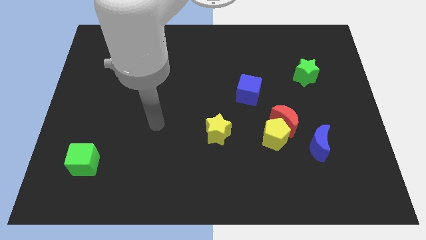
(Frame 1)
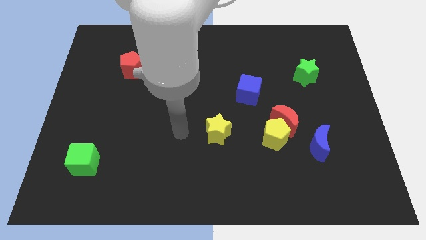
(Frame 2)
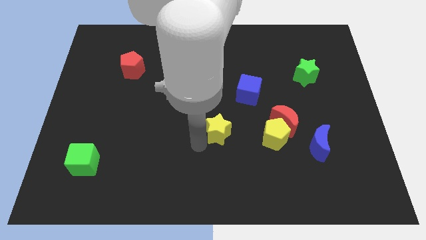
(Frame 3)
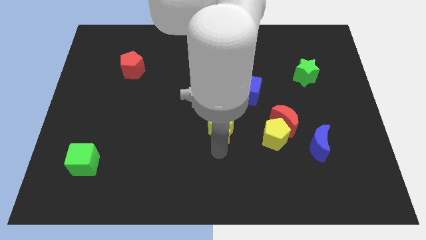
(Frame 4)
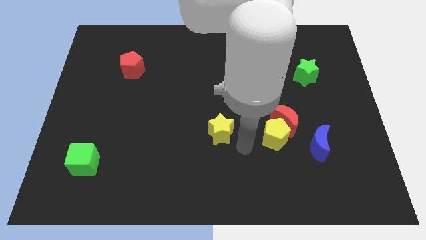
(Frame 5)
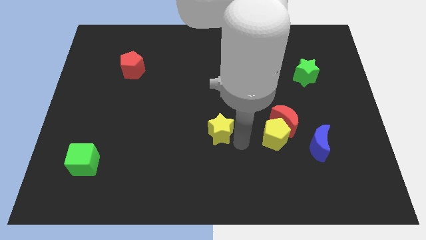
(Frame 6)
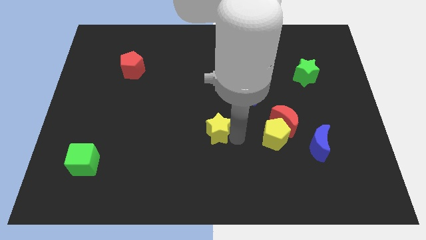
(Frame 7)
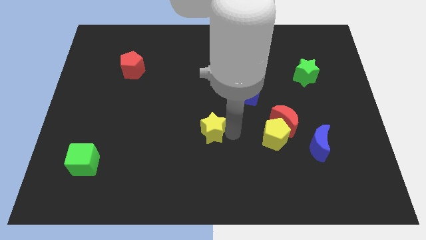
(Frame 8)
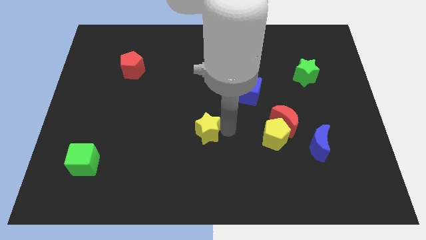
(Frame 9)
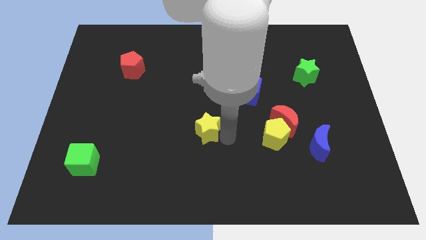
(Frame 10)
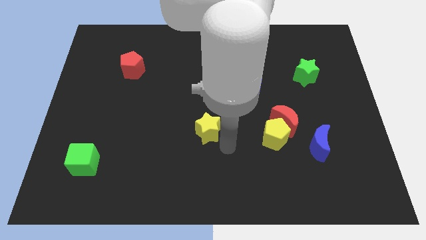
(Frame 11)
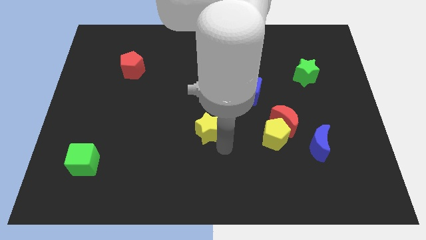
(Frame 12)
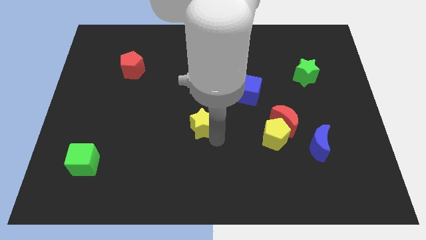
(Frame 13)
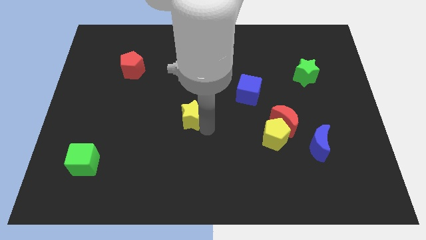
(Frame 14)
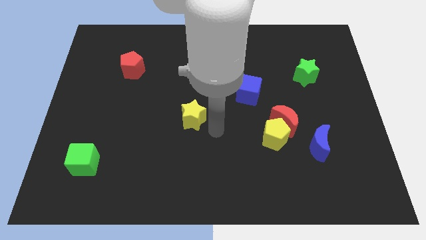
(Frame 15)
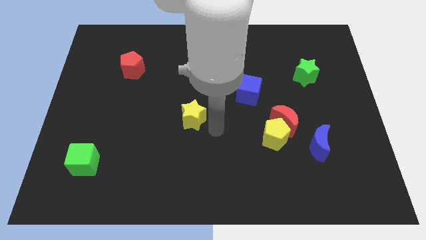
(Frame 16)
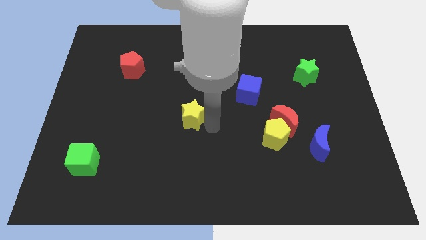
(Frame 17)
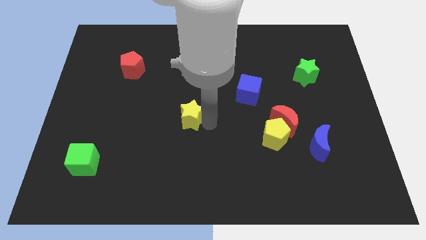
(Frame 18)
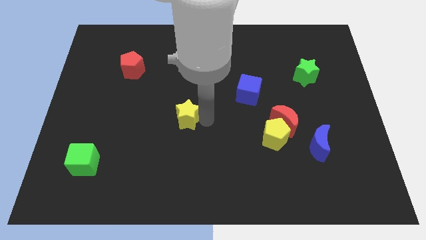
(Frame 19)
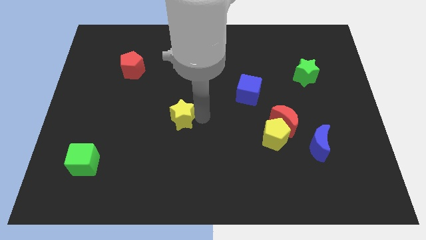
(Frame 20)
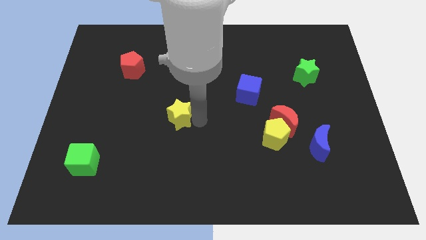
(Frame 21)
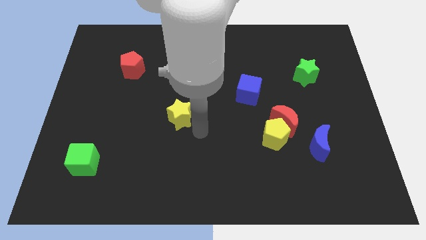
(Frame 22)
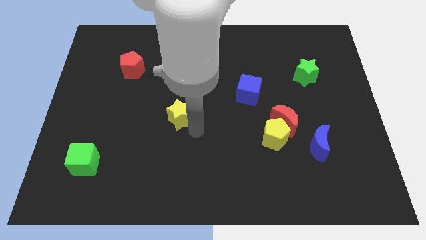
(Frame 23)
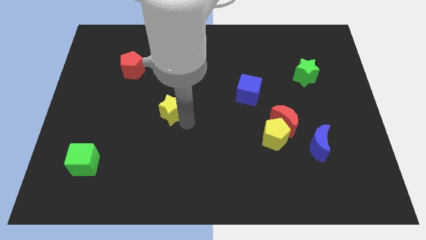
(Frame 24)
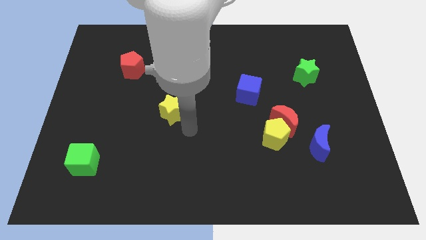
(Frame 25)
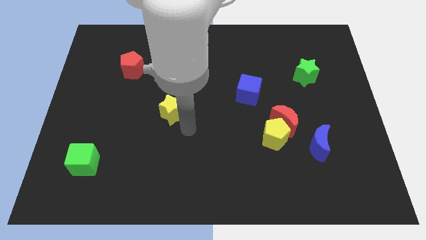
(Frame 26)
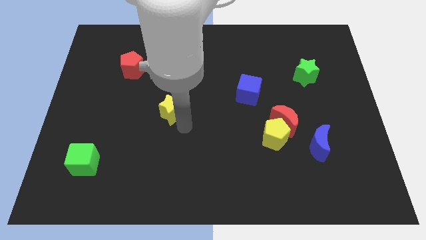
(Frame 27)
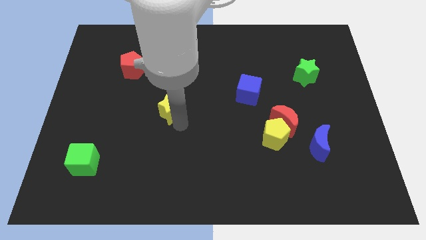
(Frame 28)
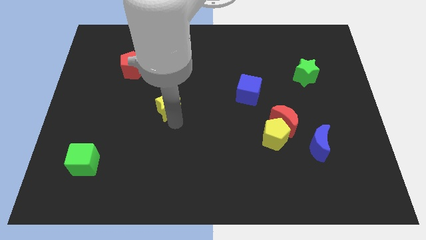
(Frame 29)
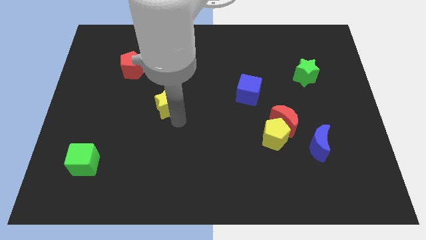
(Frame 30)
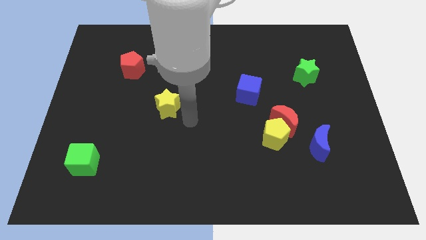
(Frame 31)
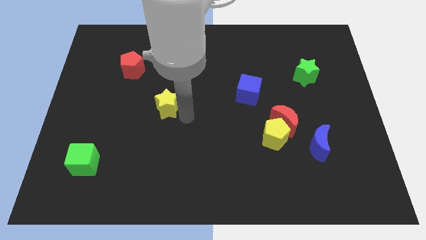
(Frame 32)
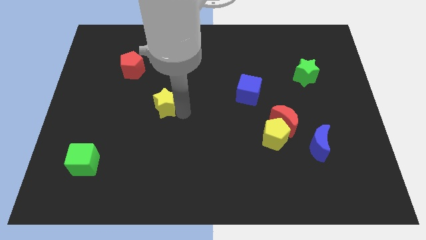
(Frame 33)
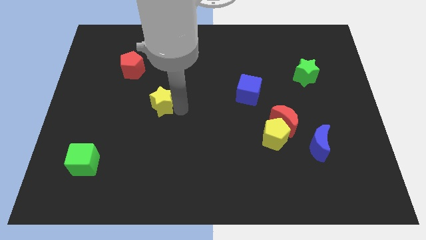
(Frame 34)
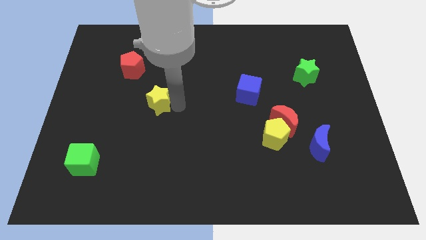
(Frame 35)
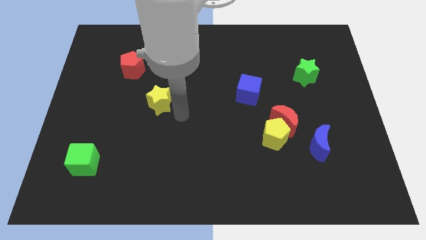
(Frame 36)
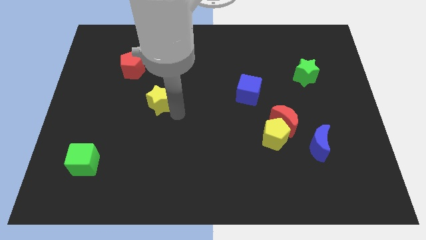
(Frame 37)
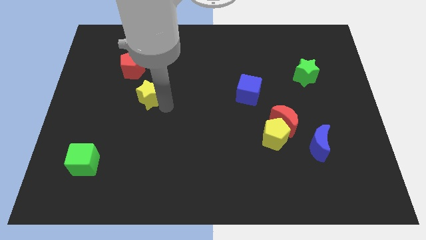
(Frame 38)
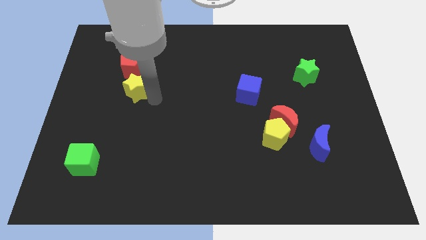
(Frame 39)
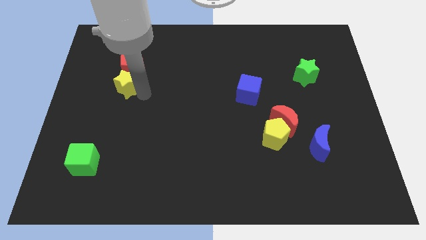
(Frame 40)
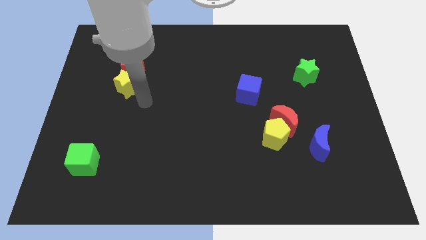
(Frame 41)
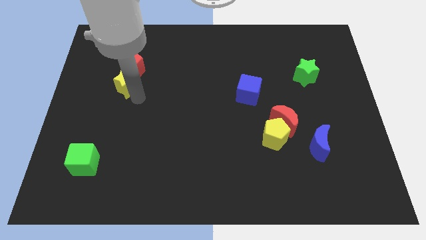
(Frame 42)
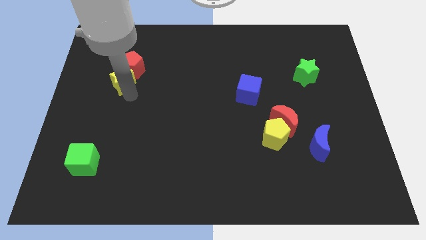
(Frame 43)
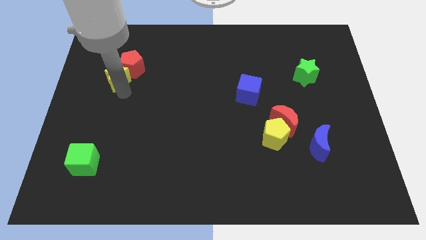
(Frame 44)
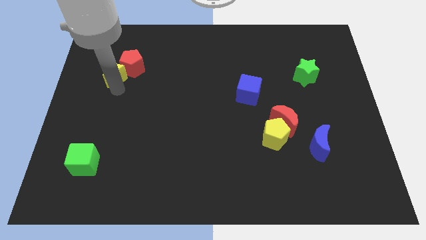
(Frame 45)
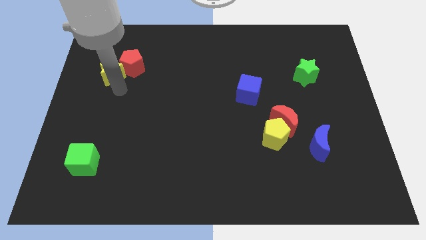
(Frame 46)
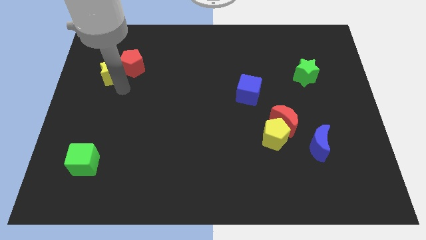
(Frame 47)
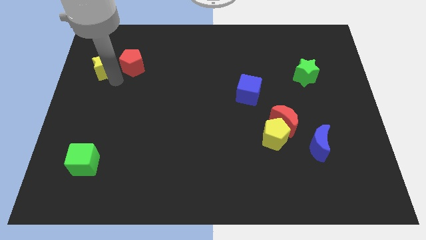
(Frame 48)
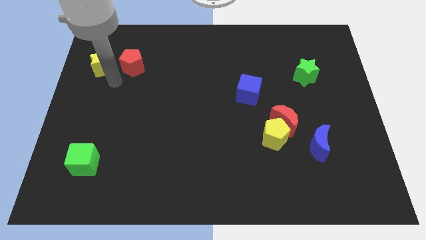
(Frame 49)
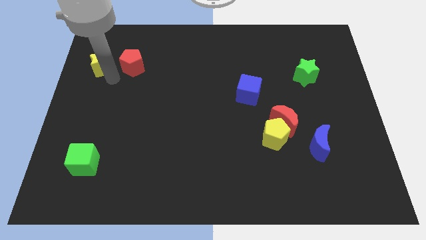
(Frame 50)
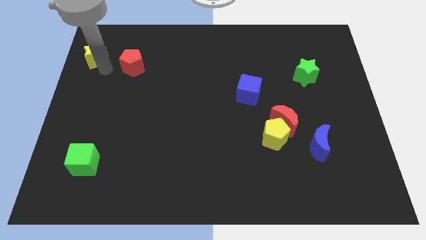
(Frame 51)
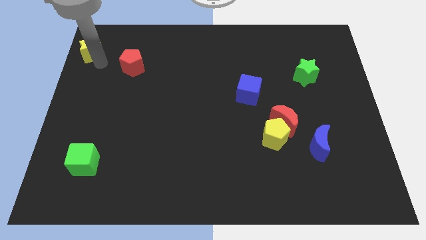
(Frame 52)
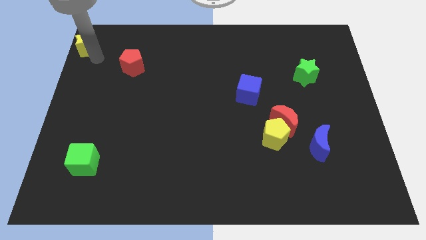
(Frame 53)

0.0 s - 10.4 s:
put the yellow star to the top left corner
